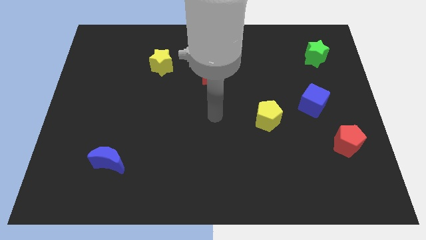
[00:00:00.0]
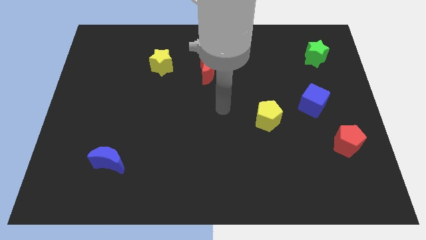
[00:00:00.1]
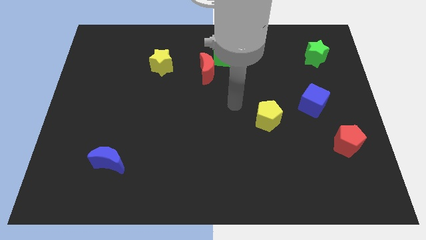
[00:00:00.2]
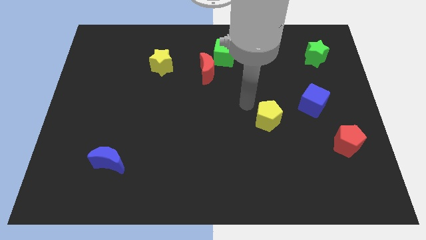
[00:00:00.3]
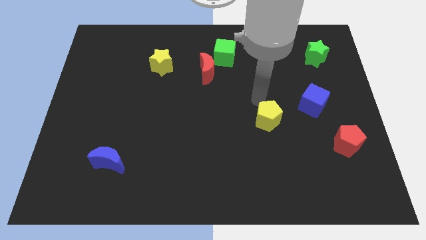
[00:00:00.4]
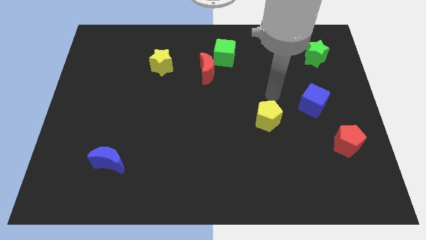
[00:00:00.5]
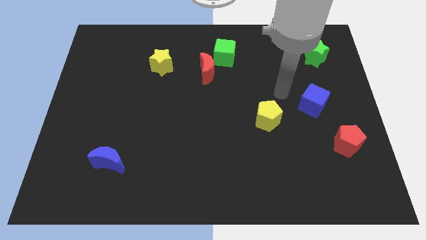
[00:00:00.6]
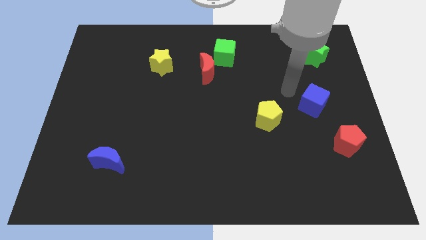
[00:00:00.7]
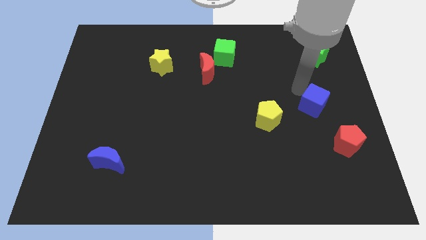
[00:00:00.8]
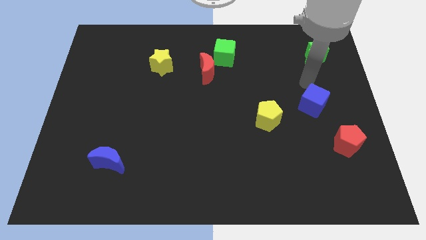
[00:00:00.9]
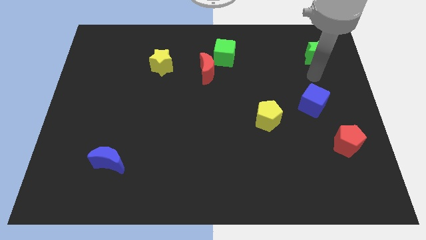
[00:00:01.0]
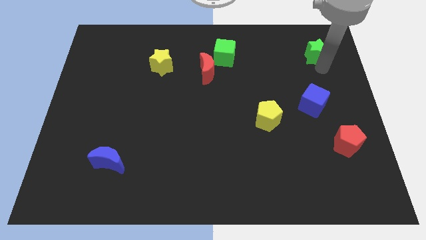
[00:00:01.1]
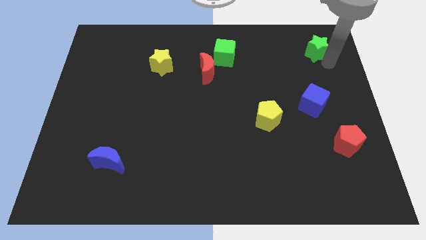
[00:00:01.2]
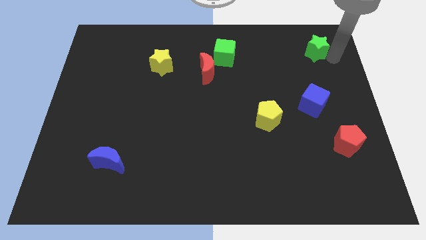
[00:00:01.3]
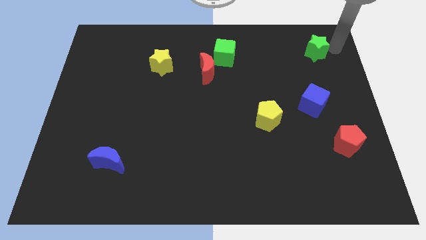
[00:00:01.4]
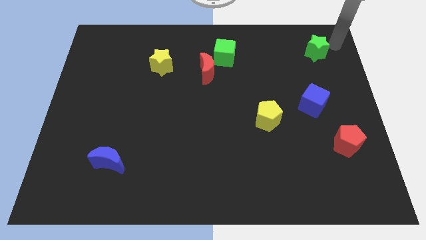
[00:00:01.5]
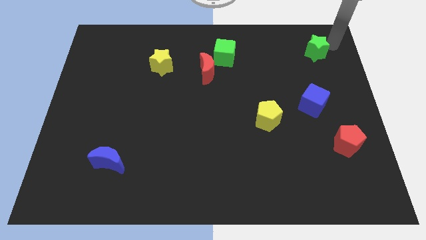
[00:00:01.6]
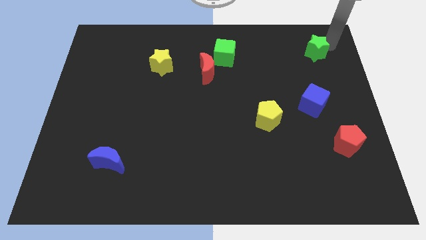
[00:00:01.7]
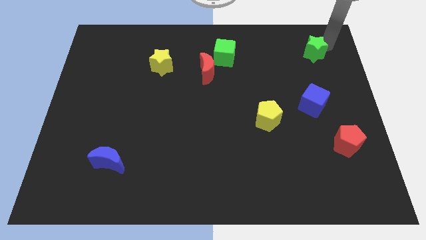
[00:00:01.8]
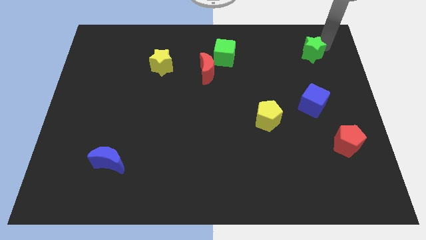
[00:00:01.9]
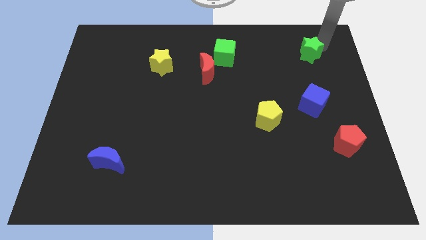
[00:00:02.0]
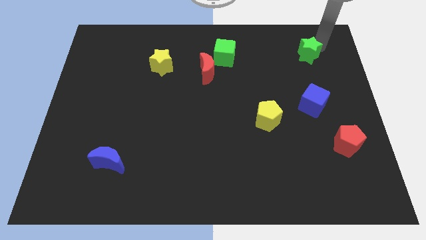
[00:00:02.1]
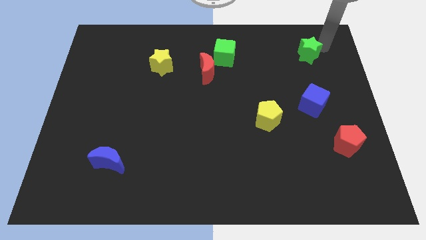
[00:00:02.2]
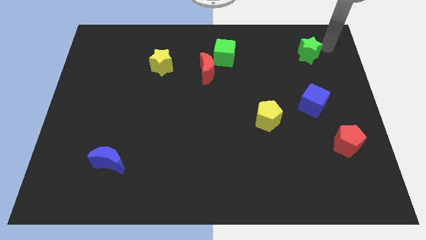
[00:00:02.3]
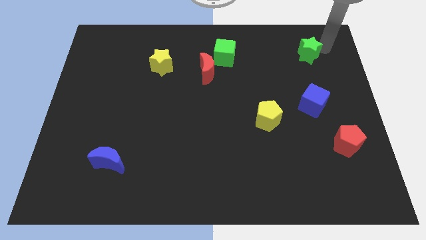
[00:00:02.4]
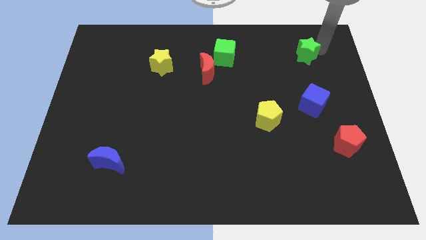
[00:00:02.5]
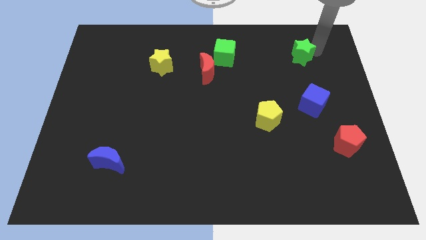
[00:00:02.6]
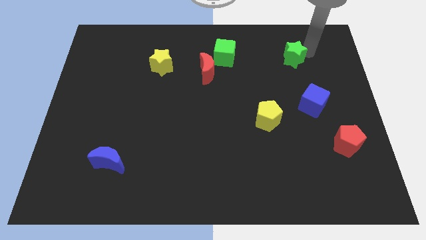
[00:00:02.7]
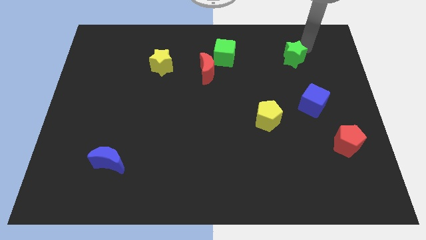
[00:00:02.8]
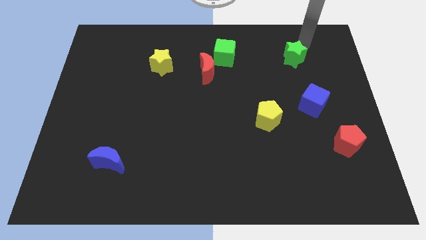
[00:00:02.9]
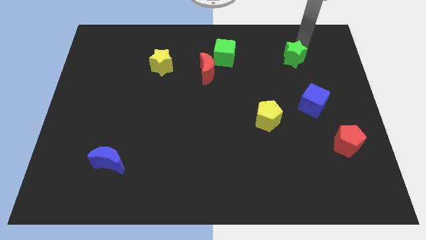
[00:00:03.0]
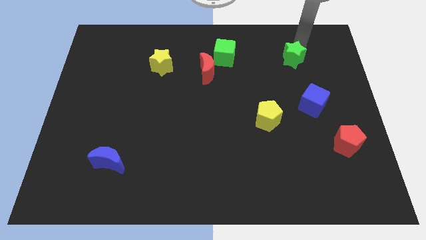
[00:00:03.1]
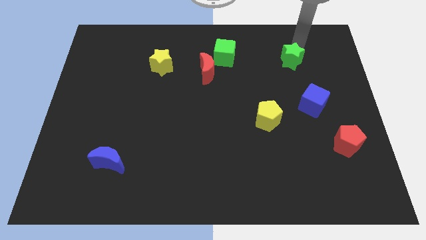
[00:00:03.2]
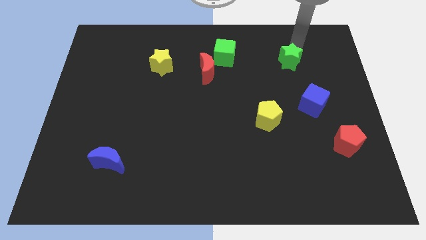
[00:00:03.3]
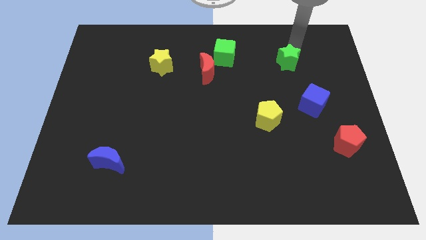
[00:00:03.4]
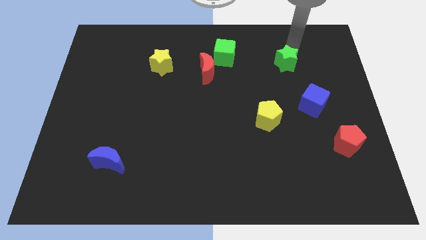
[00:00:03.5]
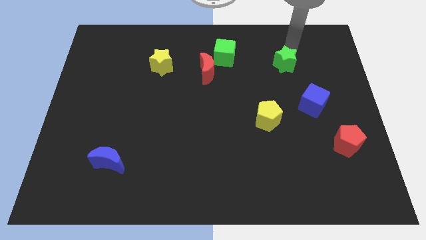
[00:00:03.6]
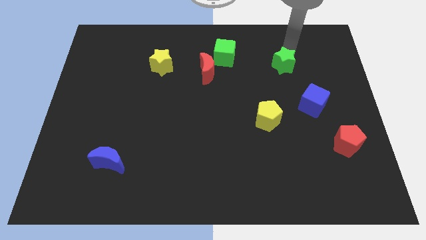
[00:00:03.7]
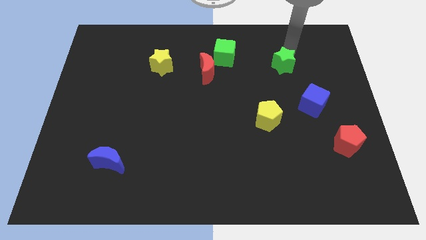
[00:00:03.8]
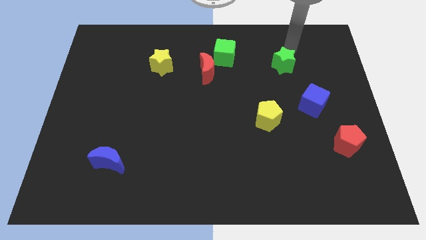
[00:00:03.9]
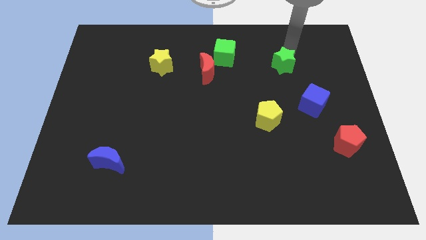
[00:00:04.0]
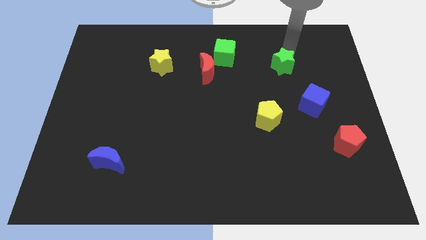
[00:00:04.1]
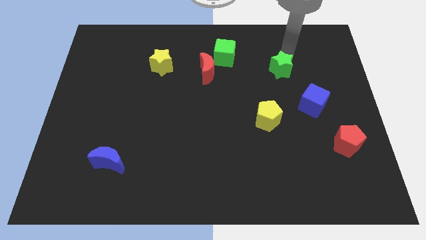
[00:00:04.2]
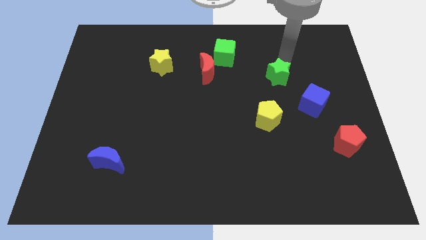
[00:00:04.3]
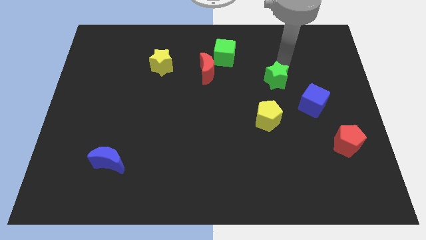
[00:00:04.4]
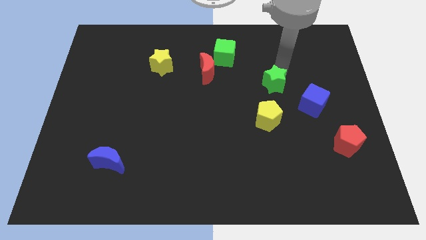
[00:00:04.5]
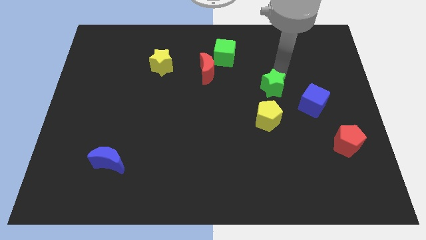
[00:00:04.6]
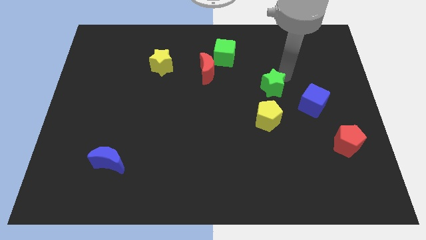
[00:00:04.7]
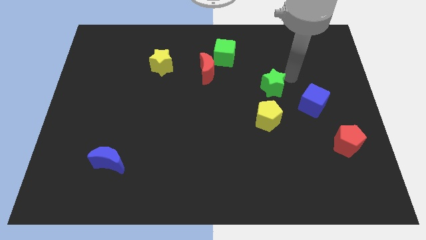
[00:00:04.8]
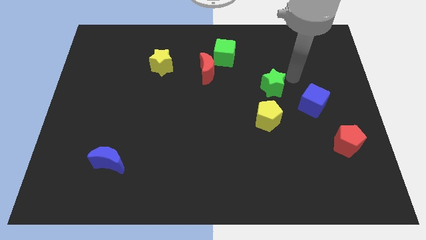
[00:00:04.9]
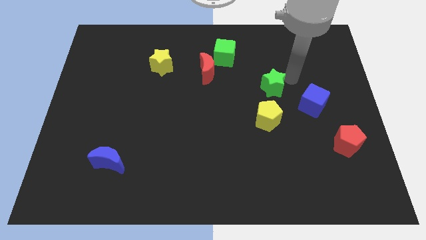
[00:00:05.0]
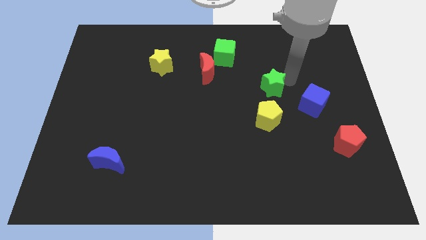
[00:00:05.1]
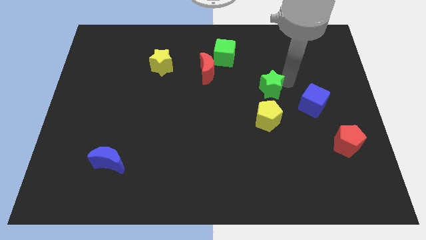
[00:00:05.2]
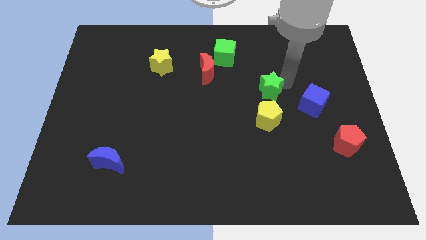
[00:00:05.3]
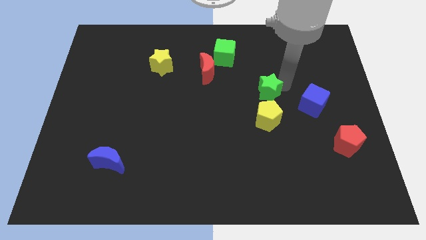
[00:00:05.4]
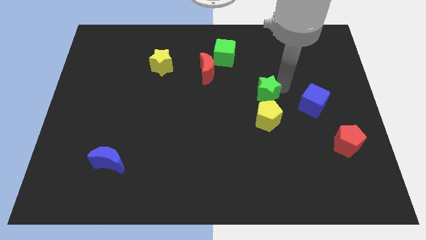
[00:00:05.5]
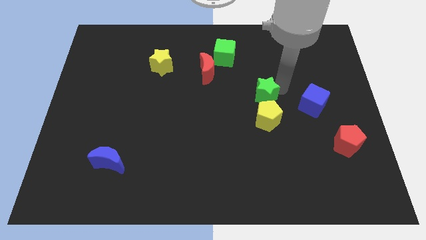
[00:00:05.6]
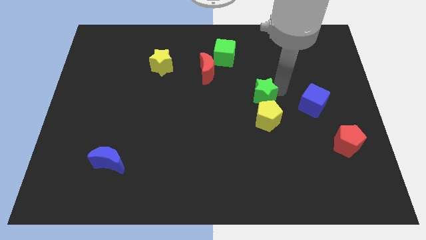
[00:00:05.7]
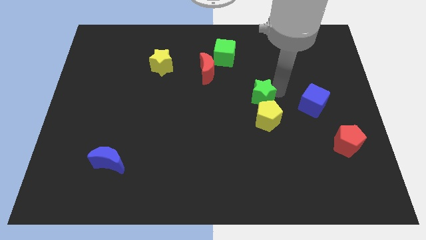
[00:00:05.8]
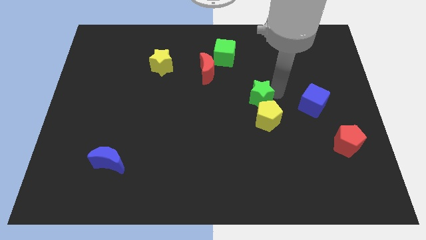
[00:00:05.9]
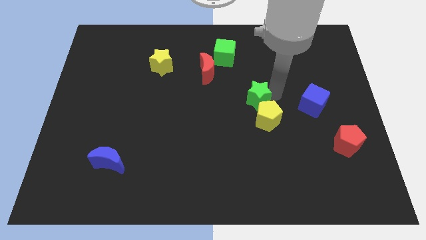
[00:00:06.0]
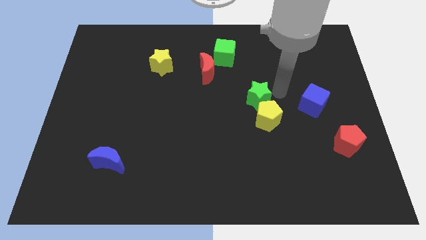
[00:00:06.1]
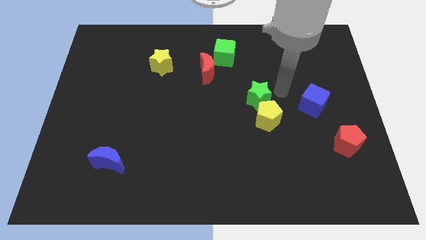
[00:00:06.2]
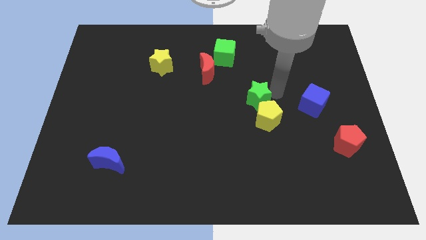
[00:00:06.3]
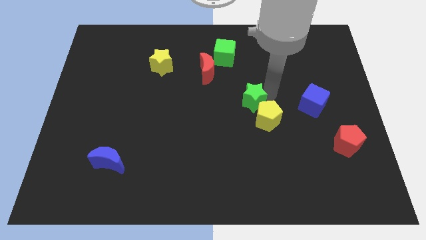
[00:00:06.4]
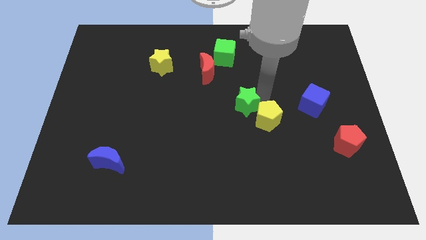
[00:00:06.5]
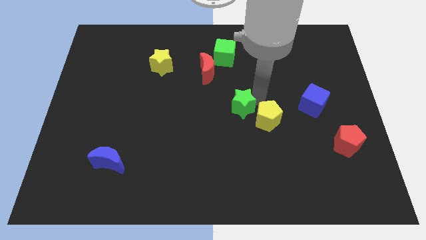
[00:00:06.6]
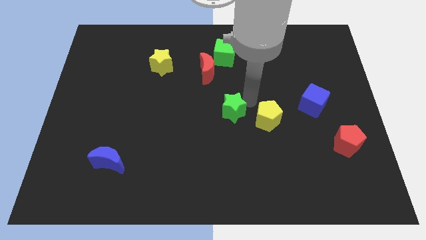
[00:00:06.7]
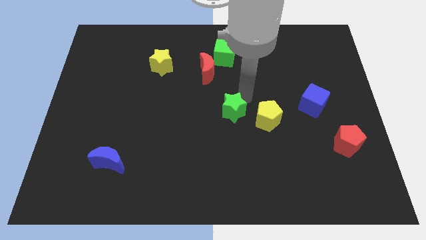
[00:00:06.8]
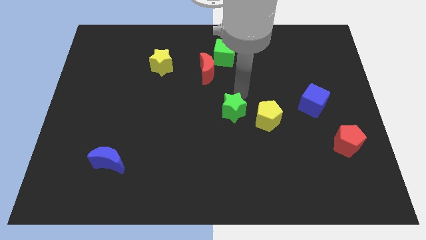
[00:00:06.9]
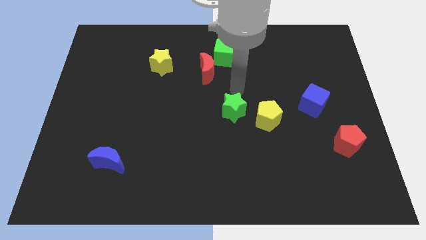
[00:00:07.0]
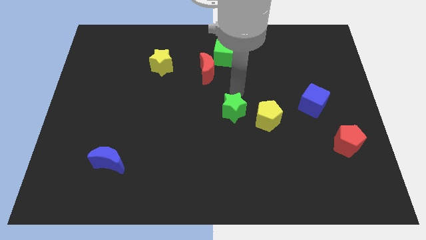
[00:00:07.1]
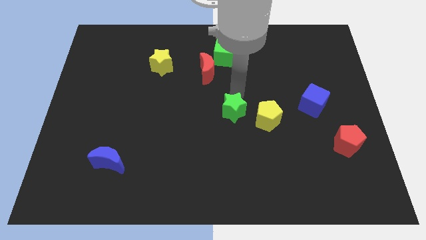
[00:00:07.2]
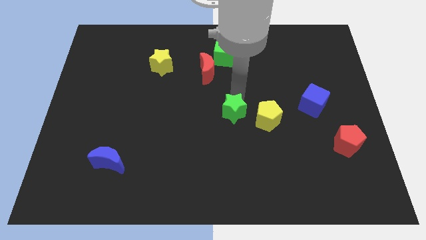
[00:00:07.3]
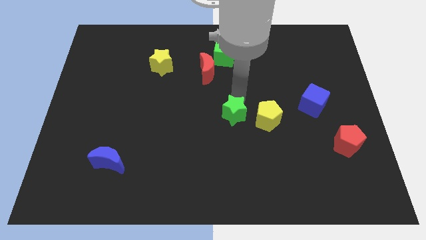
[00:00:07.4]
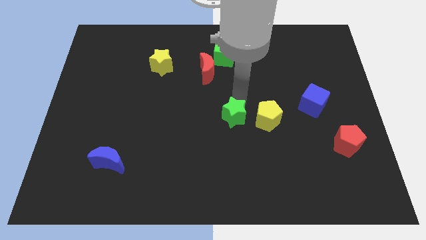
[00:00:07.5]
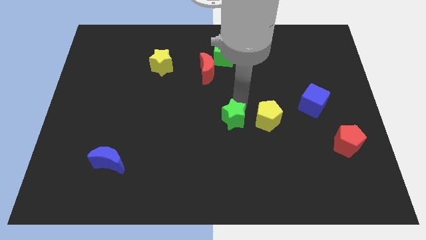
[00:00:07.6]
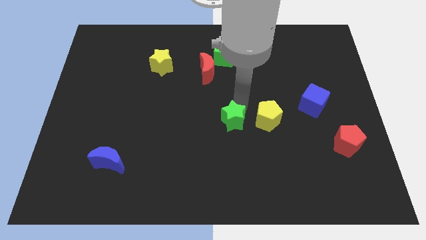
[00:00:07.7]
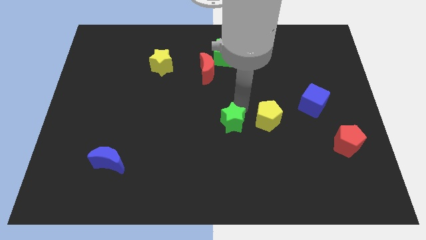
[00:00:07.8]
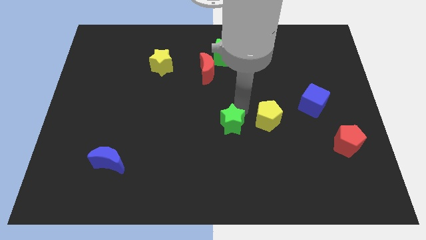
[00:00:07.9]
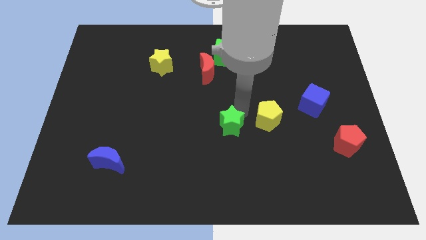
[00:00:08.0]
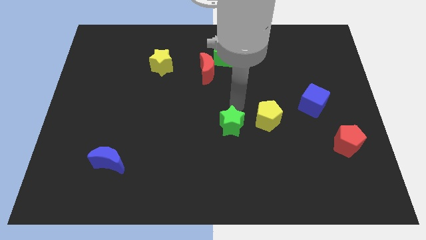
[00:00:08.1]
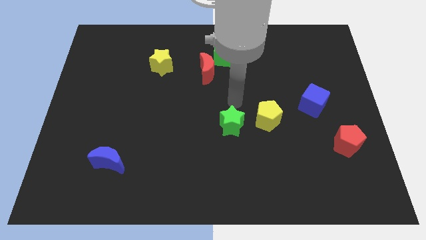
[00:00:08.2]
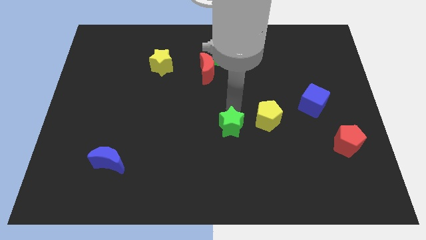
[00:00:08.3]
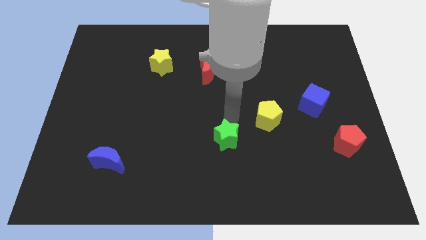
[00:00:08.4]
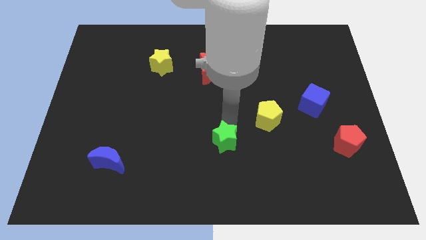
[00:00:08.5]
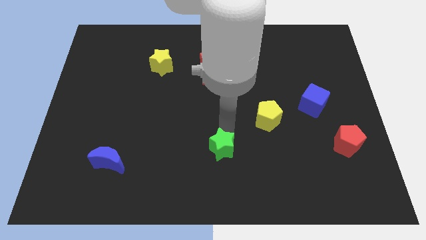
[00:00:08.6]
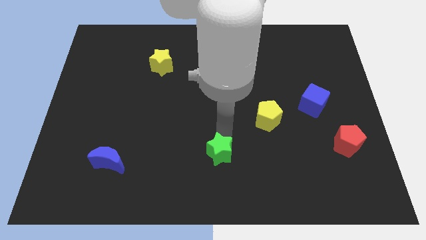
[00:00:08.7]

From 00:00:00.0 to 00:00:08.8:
put the green star to the bottom side
